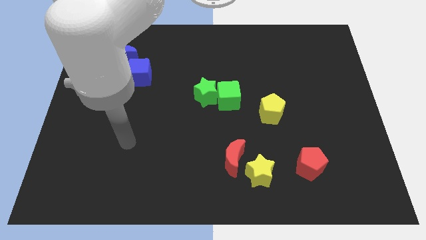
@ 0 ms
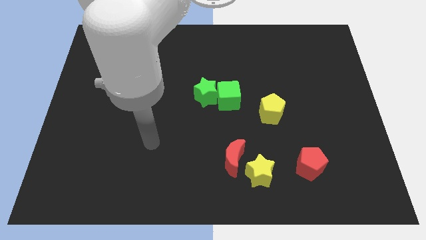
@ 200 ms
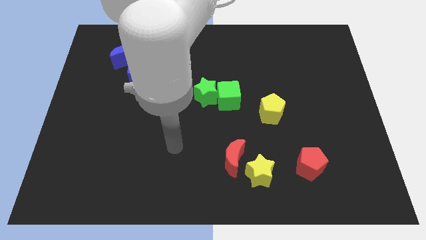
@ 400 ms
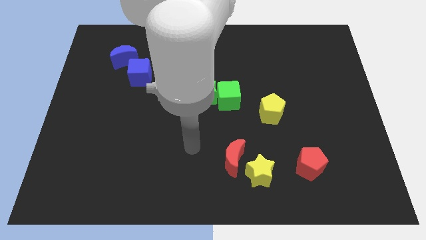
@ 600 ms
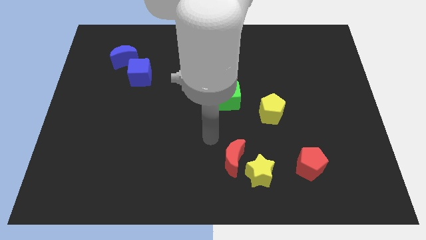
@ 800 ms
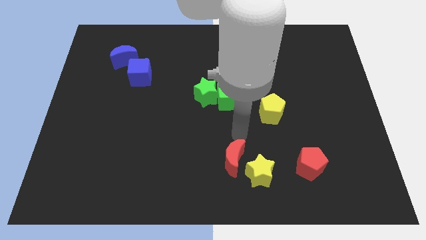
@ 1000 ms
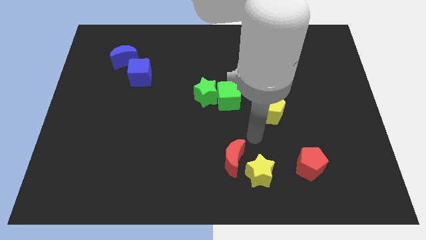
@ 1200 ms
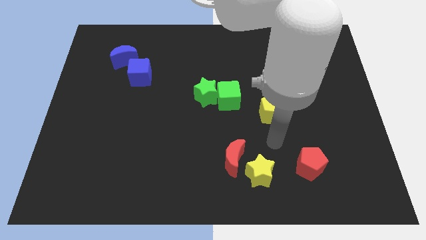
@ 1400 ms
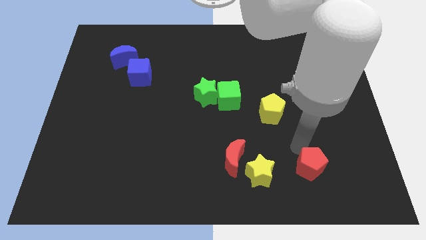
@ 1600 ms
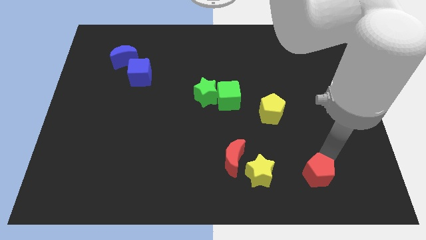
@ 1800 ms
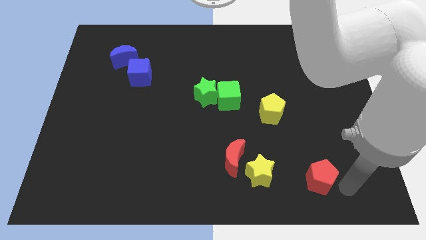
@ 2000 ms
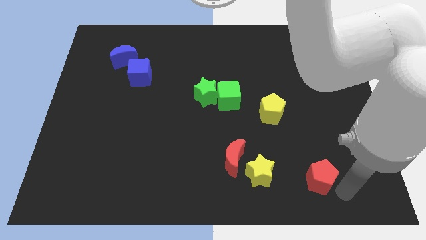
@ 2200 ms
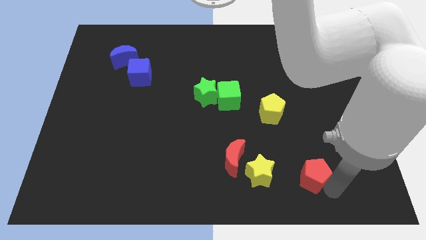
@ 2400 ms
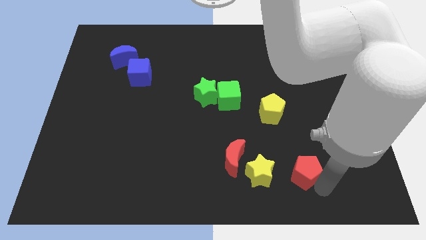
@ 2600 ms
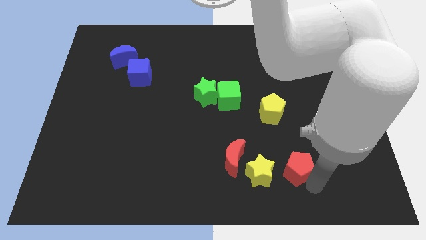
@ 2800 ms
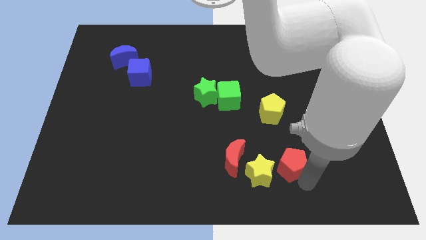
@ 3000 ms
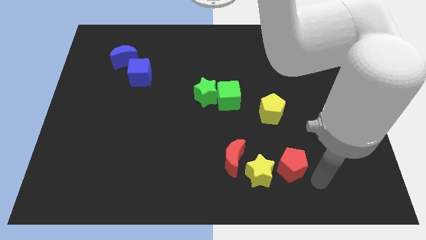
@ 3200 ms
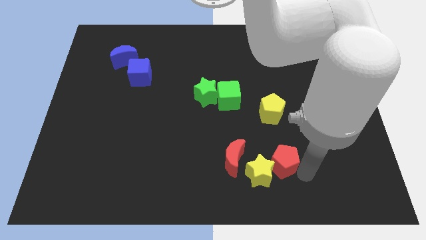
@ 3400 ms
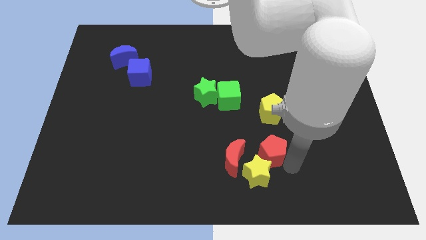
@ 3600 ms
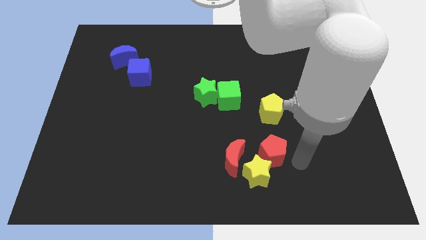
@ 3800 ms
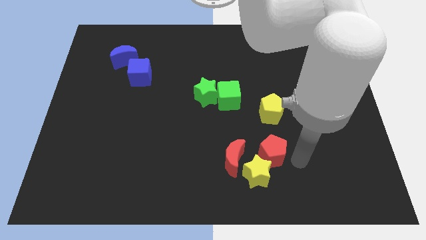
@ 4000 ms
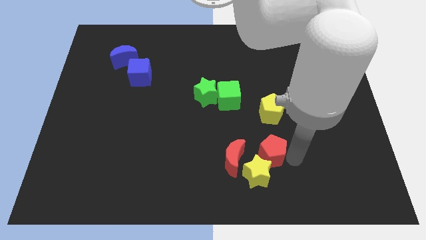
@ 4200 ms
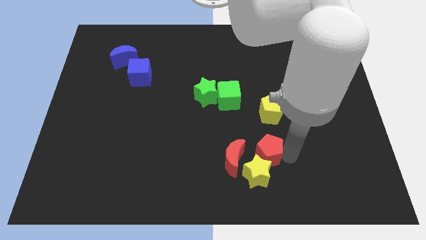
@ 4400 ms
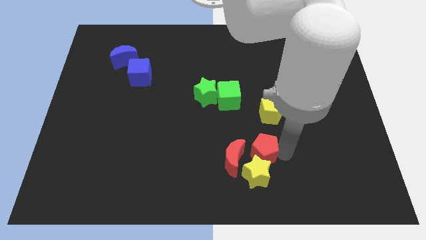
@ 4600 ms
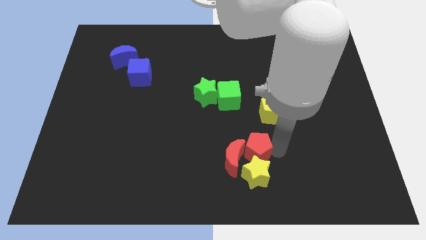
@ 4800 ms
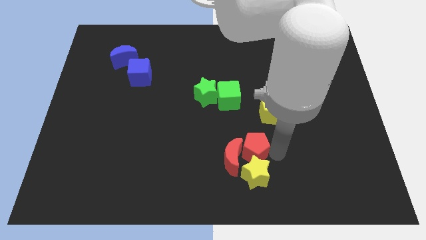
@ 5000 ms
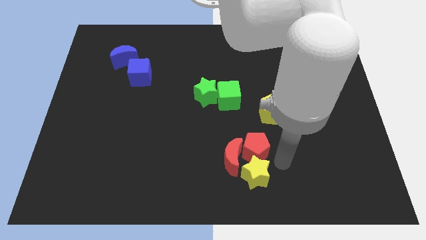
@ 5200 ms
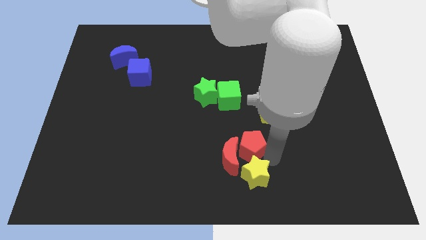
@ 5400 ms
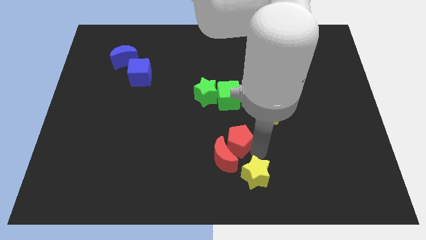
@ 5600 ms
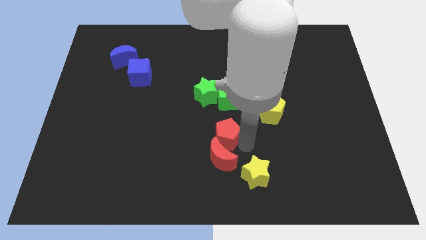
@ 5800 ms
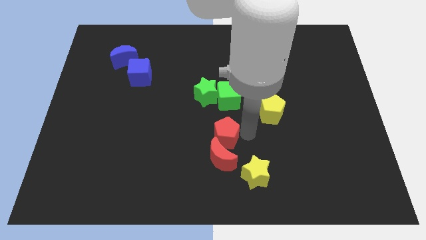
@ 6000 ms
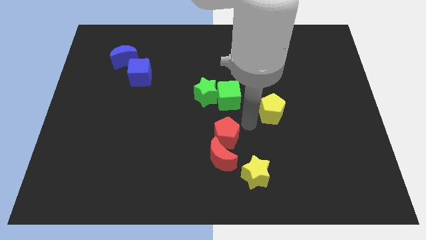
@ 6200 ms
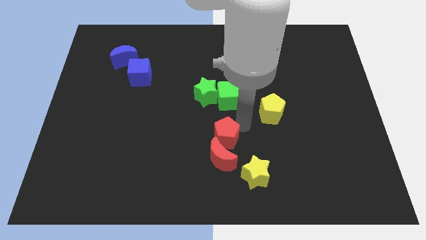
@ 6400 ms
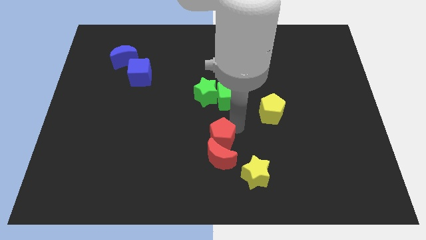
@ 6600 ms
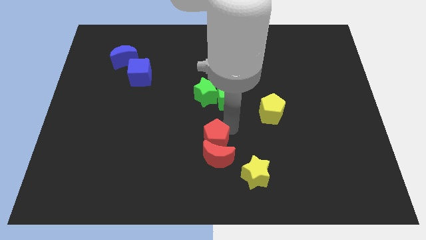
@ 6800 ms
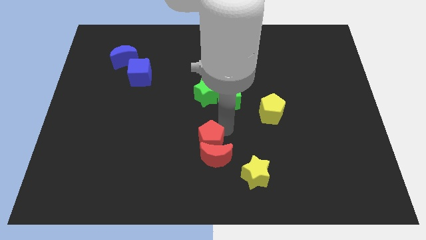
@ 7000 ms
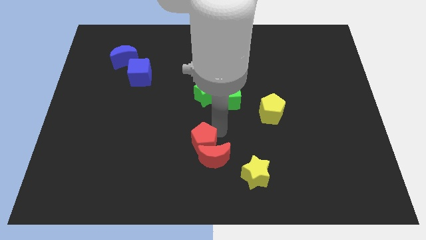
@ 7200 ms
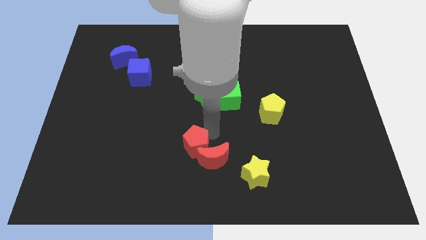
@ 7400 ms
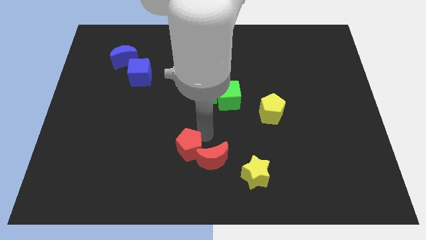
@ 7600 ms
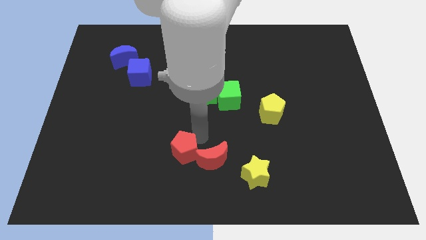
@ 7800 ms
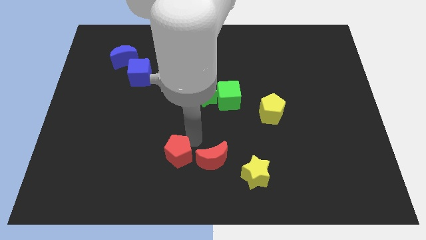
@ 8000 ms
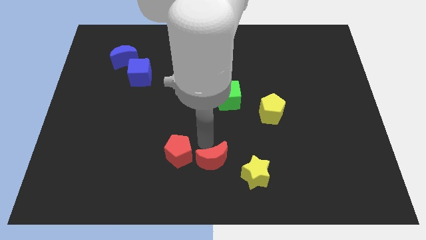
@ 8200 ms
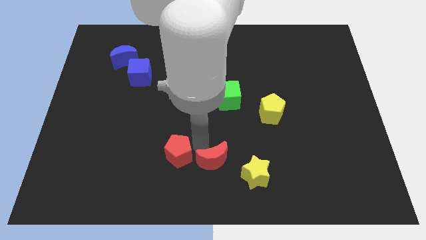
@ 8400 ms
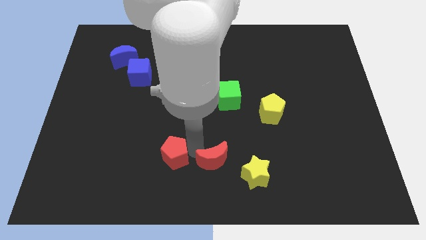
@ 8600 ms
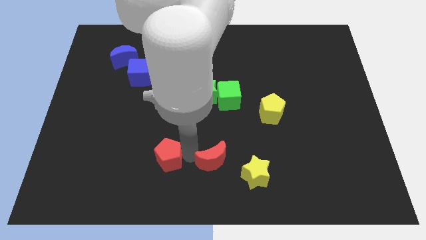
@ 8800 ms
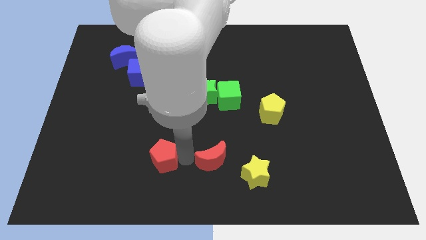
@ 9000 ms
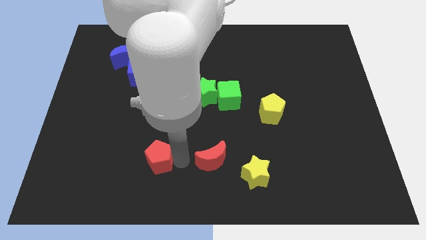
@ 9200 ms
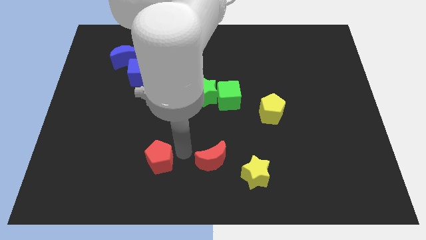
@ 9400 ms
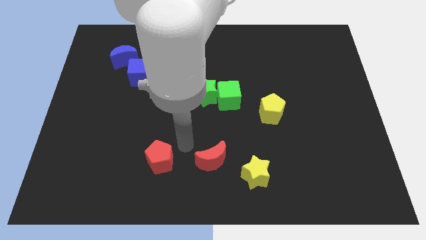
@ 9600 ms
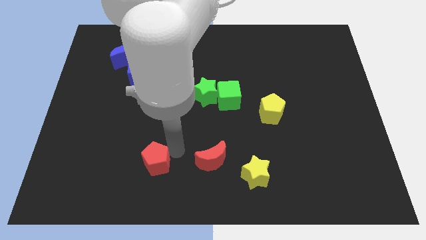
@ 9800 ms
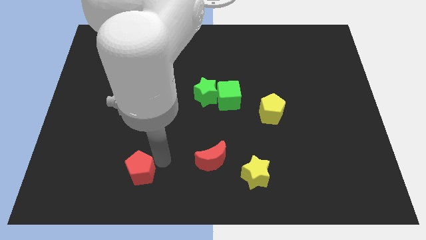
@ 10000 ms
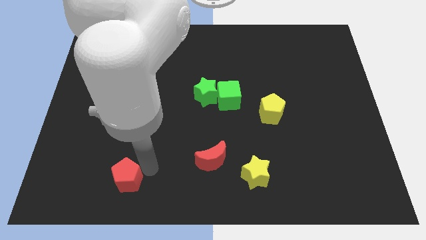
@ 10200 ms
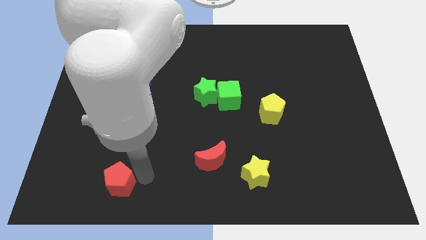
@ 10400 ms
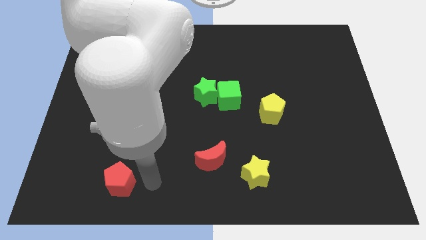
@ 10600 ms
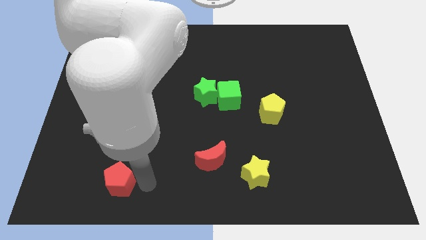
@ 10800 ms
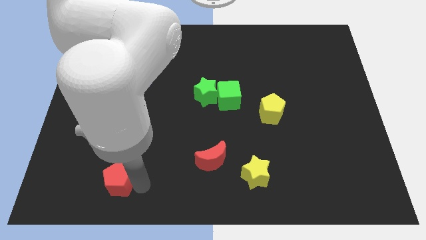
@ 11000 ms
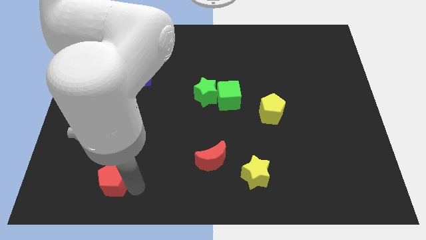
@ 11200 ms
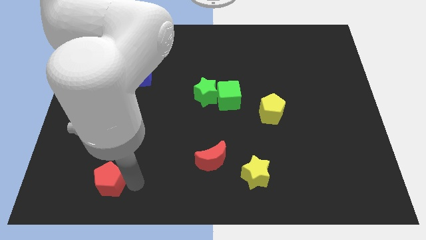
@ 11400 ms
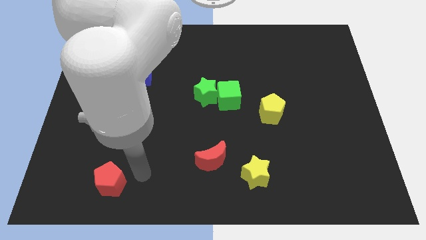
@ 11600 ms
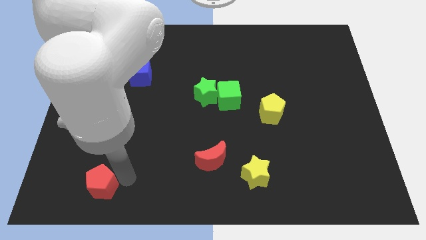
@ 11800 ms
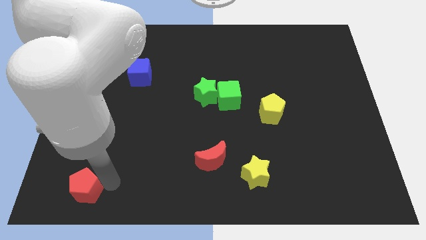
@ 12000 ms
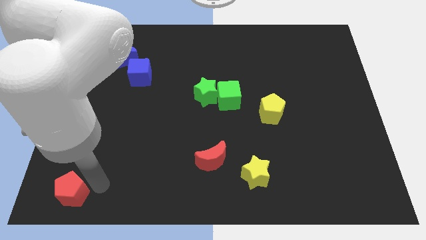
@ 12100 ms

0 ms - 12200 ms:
slide the red pentagon to the lower left corner
